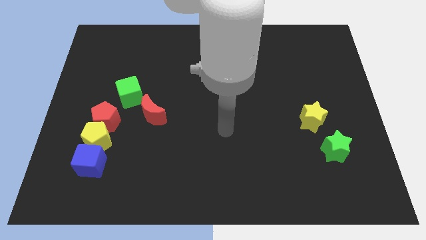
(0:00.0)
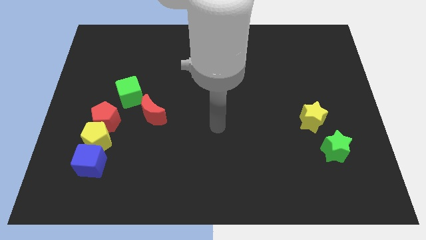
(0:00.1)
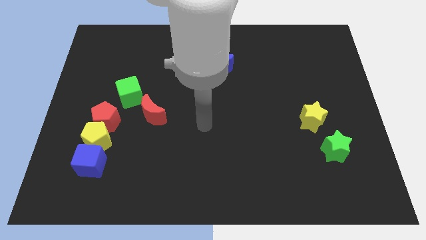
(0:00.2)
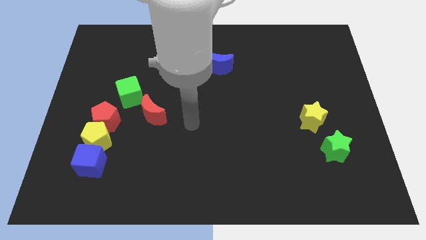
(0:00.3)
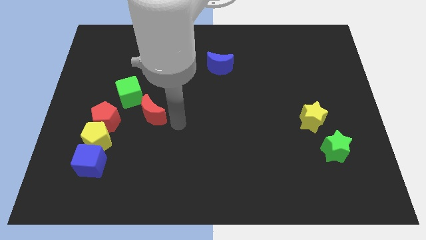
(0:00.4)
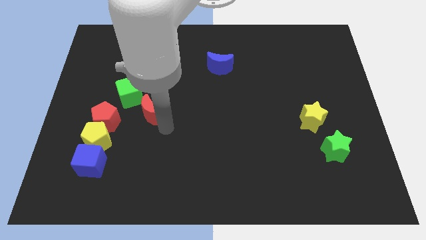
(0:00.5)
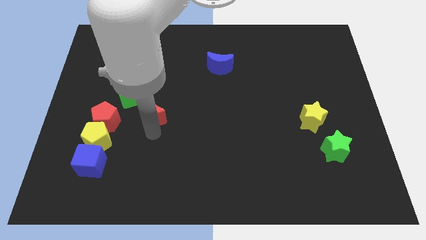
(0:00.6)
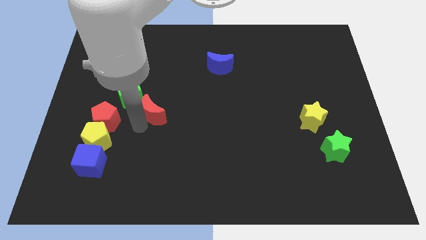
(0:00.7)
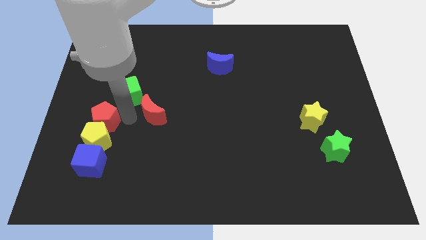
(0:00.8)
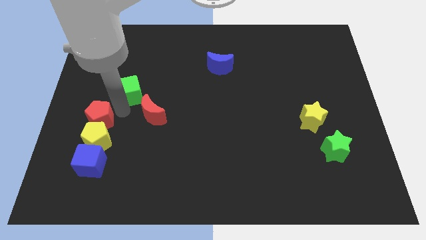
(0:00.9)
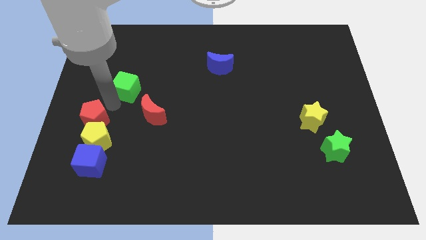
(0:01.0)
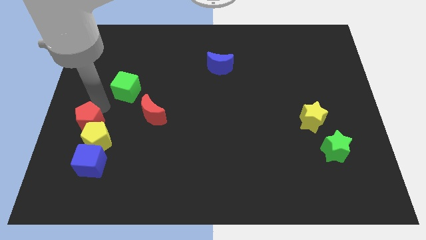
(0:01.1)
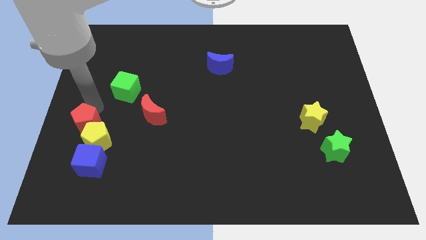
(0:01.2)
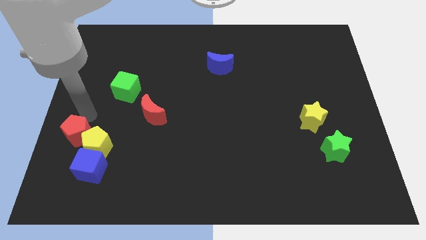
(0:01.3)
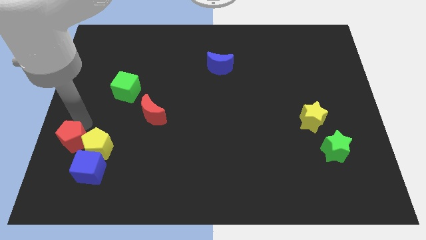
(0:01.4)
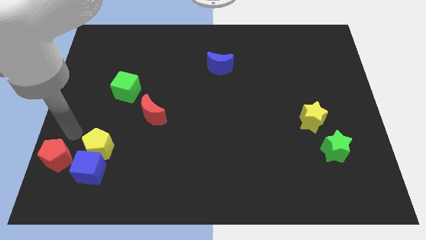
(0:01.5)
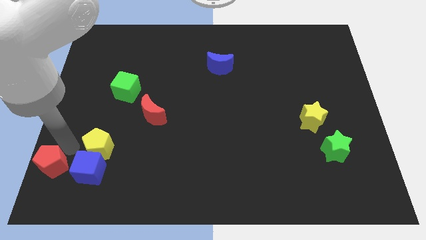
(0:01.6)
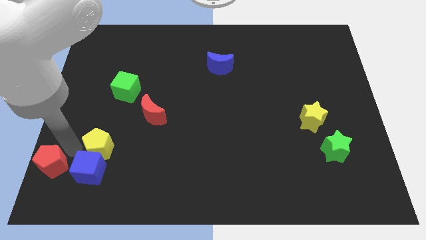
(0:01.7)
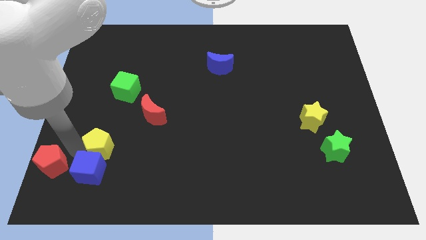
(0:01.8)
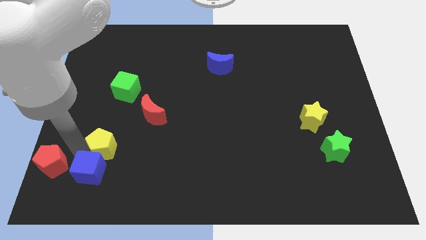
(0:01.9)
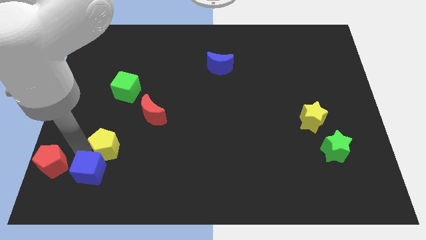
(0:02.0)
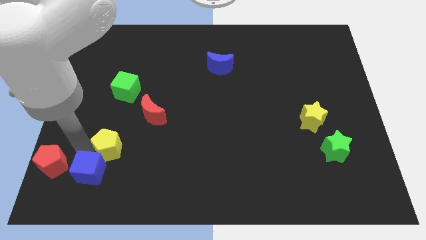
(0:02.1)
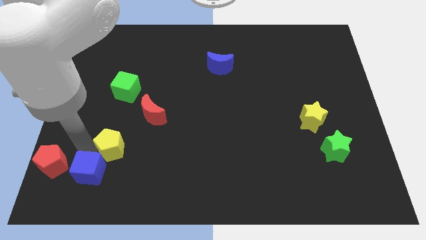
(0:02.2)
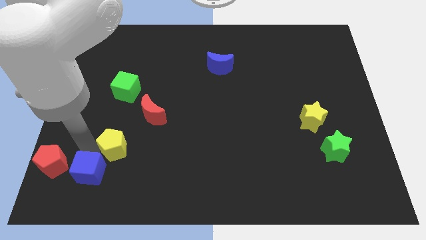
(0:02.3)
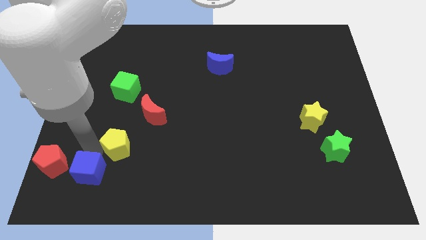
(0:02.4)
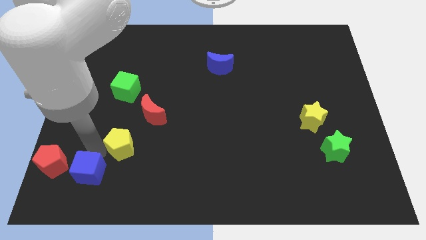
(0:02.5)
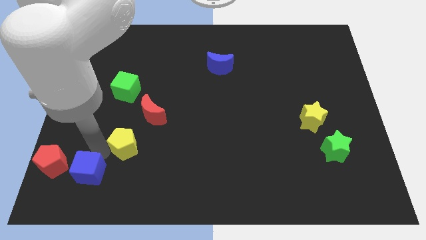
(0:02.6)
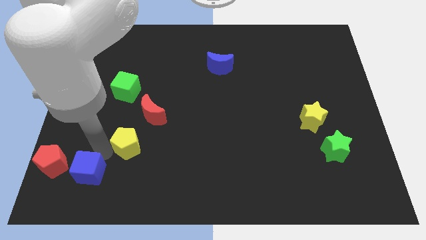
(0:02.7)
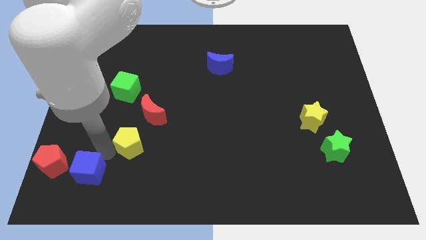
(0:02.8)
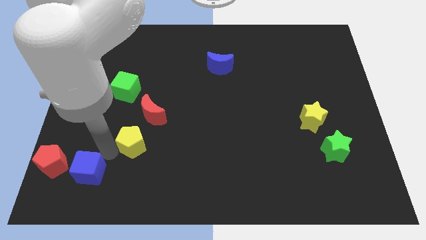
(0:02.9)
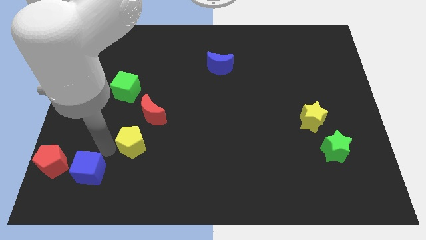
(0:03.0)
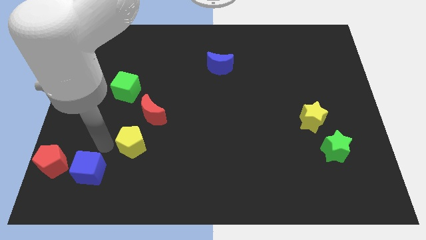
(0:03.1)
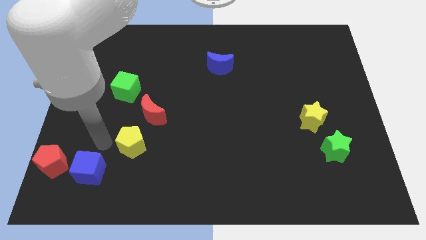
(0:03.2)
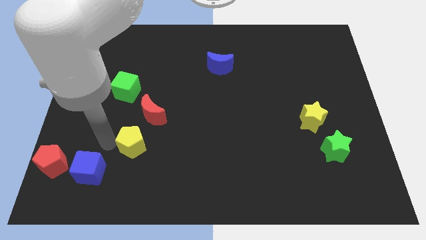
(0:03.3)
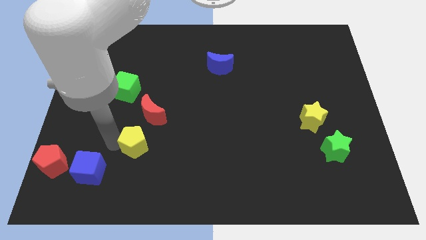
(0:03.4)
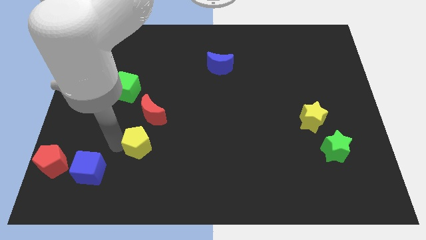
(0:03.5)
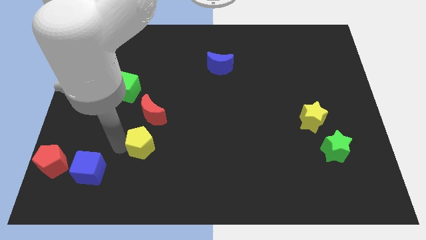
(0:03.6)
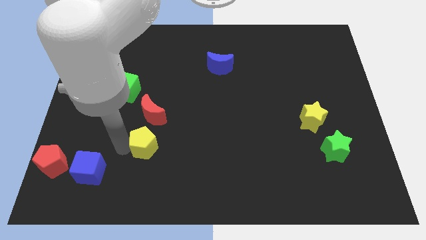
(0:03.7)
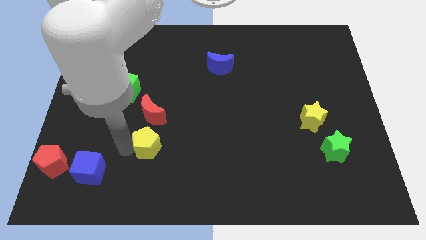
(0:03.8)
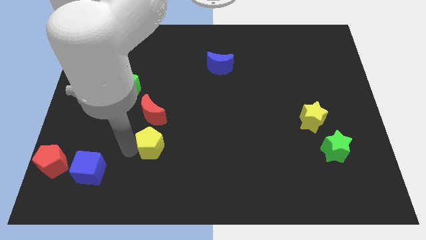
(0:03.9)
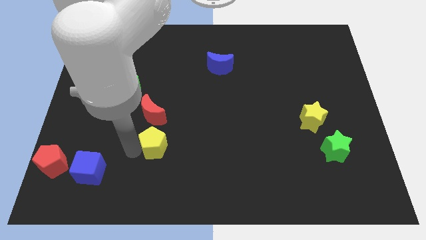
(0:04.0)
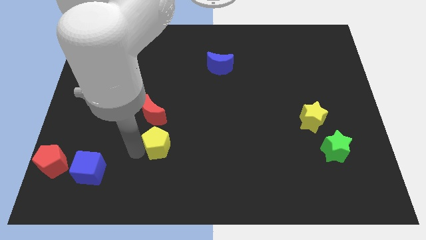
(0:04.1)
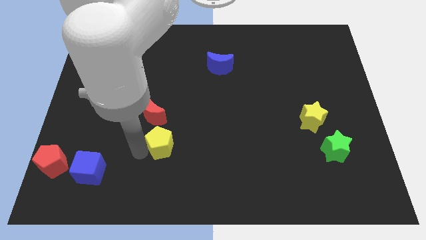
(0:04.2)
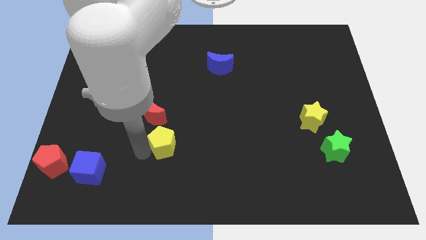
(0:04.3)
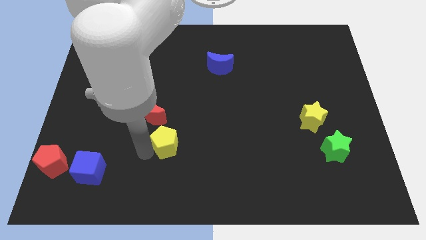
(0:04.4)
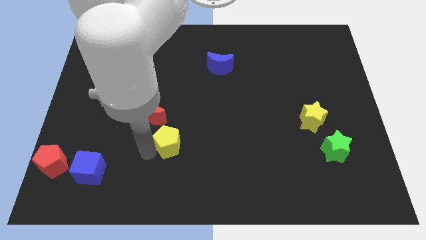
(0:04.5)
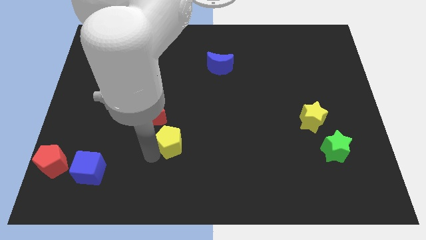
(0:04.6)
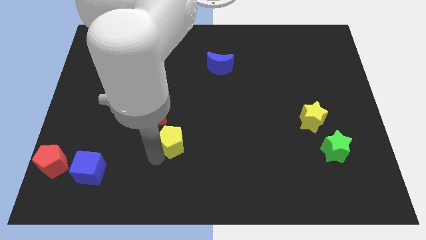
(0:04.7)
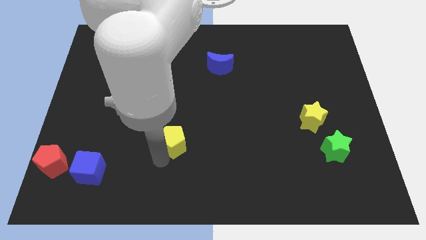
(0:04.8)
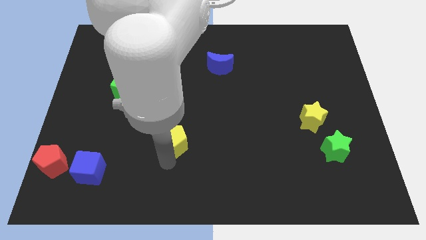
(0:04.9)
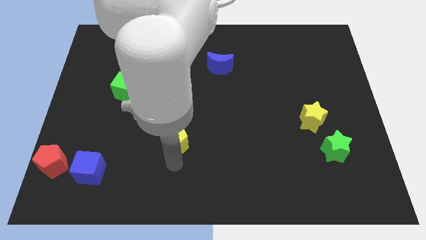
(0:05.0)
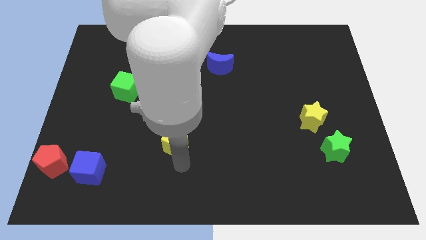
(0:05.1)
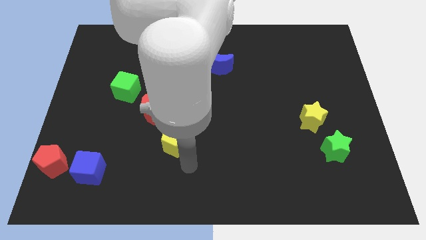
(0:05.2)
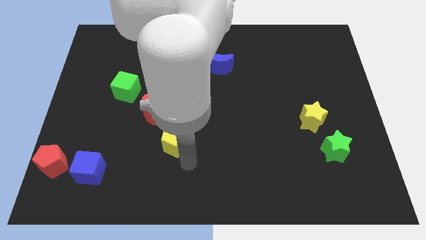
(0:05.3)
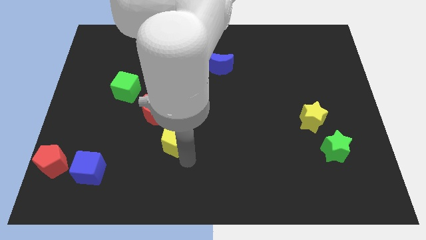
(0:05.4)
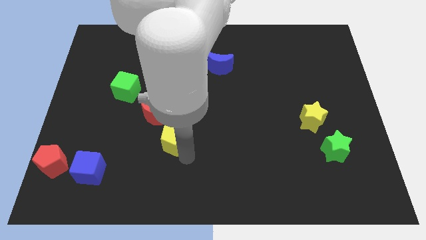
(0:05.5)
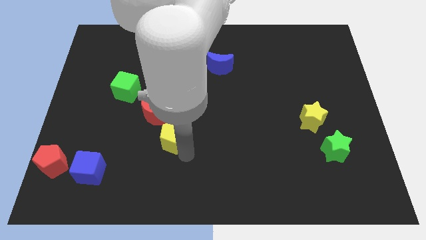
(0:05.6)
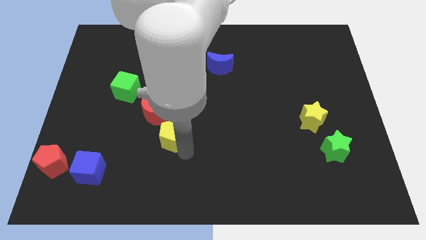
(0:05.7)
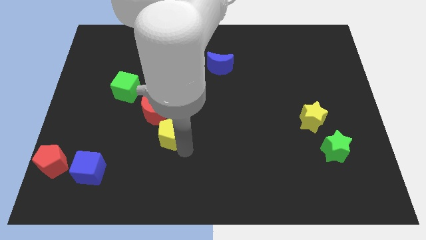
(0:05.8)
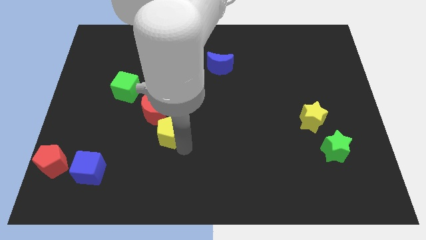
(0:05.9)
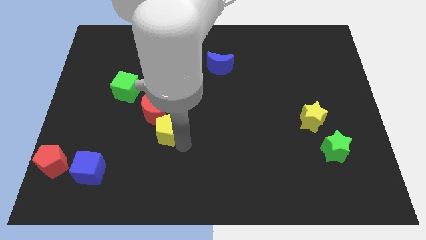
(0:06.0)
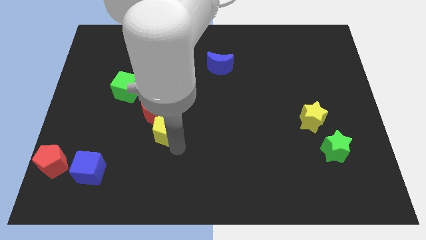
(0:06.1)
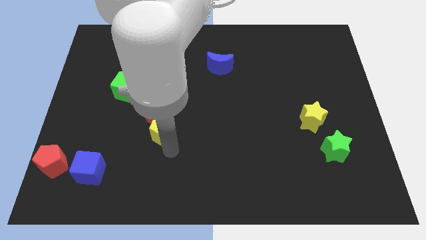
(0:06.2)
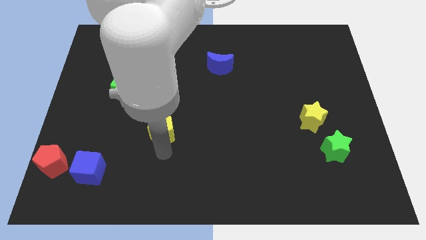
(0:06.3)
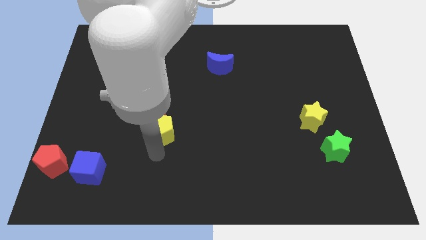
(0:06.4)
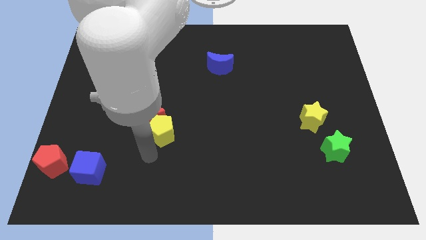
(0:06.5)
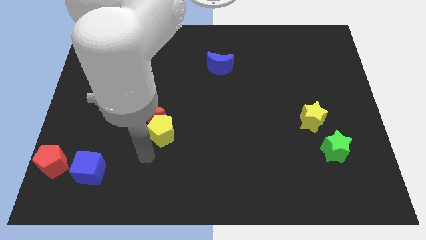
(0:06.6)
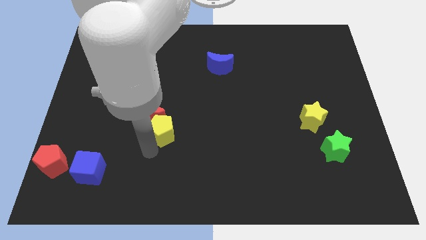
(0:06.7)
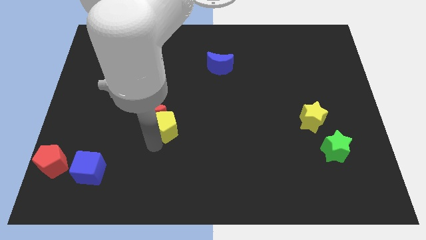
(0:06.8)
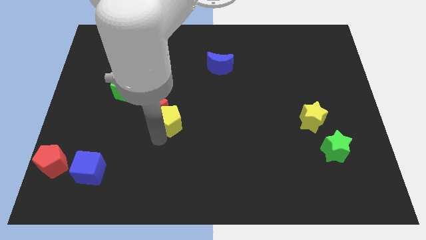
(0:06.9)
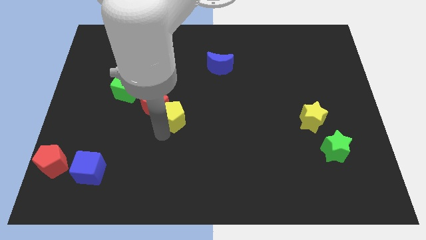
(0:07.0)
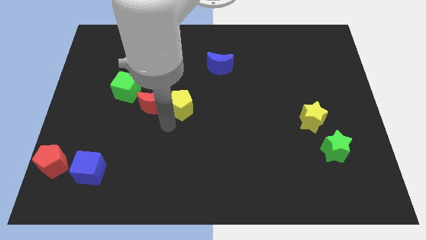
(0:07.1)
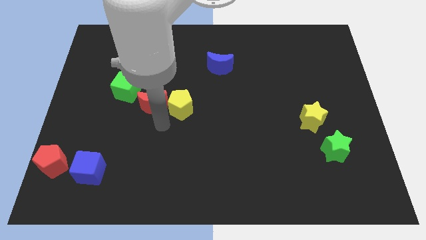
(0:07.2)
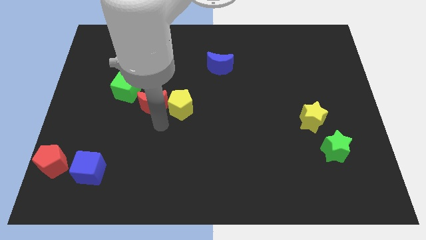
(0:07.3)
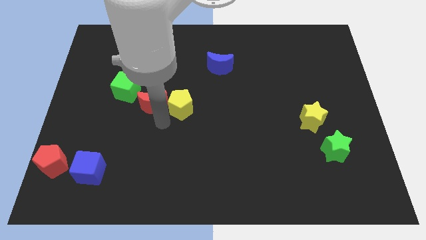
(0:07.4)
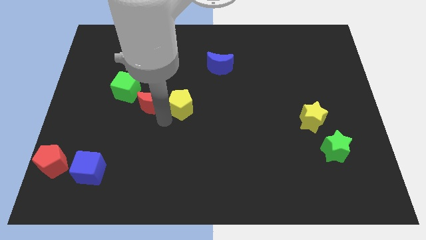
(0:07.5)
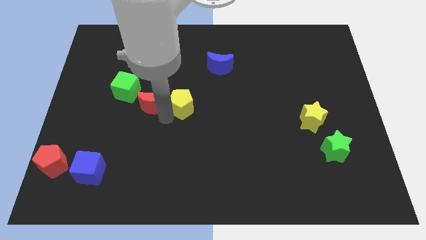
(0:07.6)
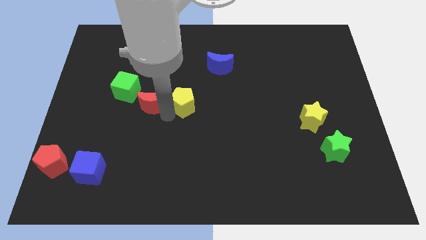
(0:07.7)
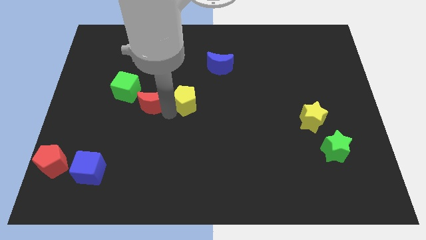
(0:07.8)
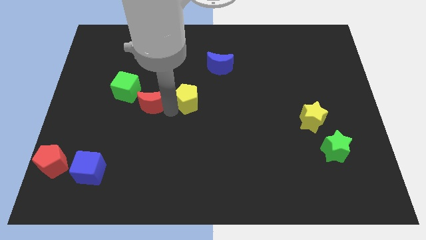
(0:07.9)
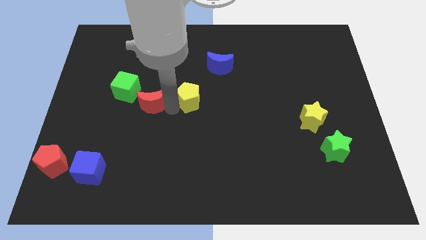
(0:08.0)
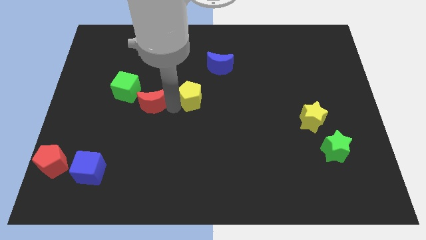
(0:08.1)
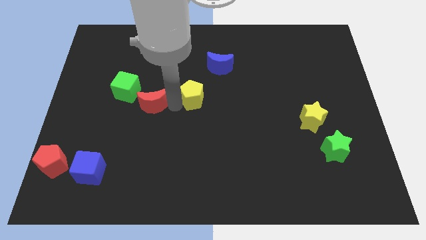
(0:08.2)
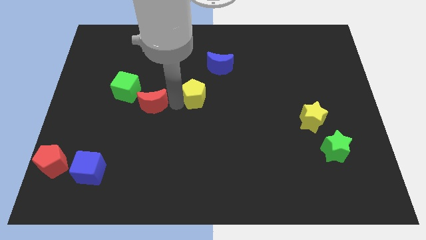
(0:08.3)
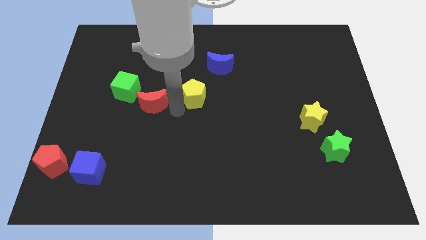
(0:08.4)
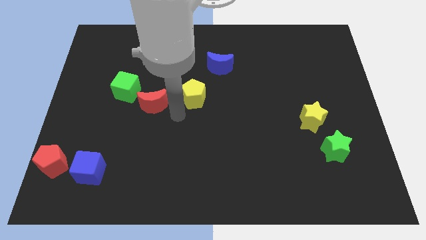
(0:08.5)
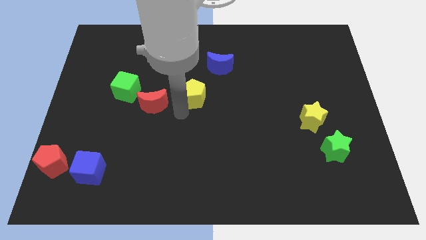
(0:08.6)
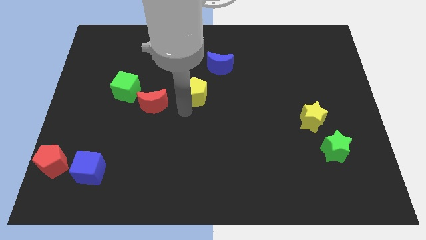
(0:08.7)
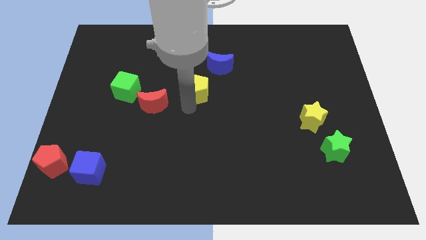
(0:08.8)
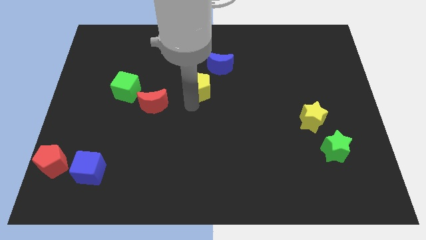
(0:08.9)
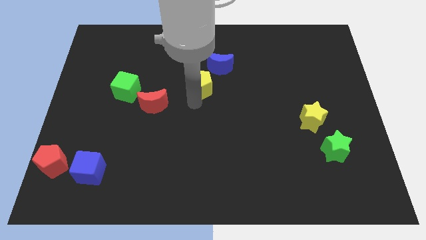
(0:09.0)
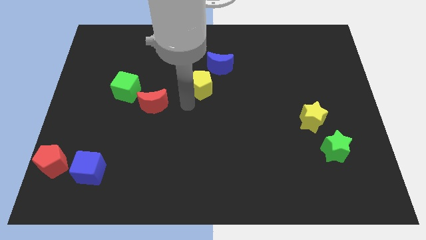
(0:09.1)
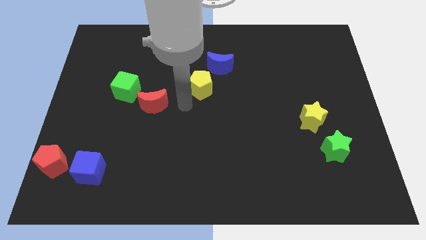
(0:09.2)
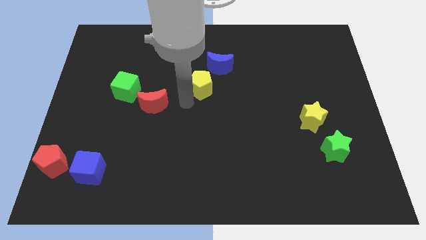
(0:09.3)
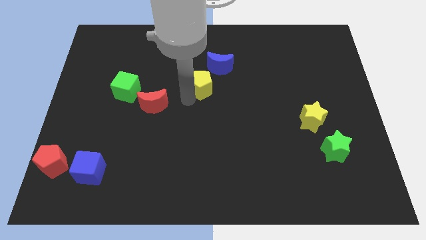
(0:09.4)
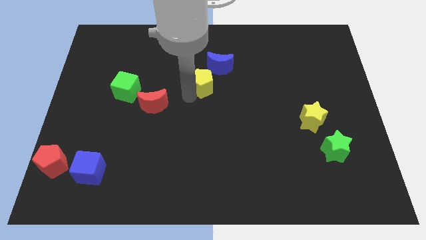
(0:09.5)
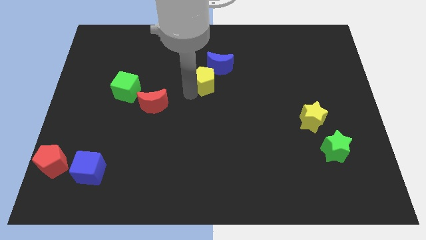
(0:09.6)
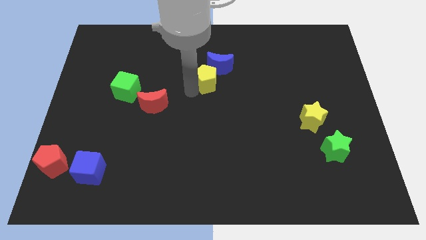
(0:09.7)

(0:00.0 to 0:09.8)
move the yellow pentagon to the blue moon
